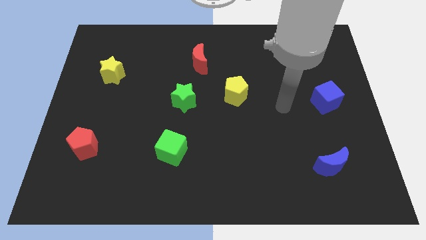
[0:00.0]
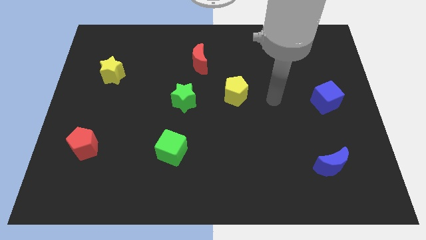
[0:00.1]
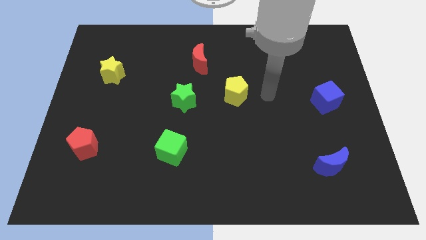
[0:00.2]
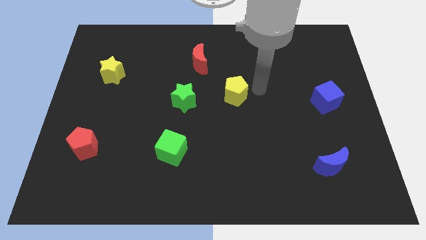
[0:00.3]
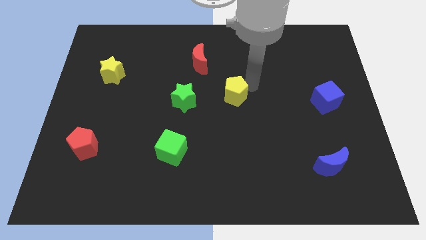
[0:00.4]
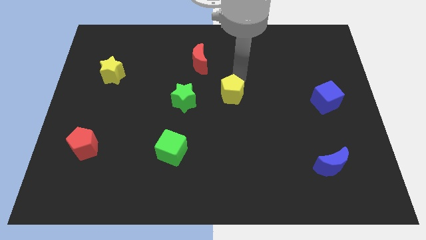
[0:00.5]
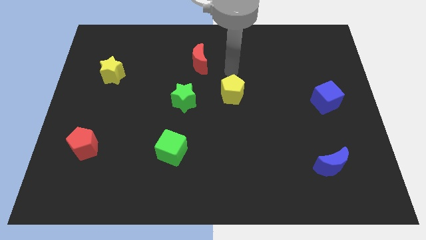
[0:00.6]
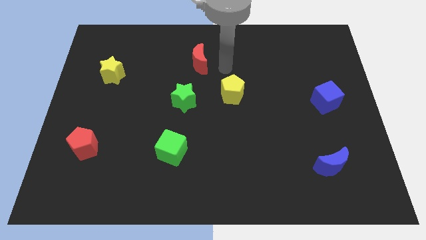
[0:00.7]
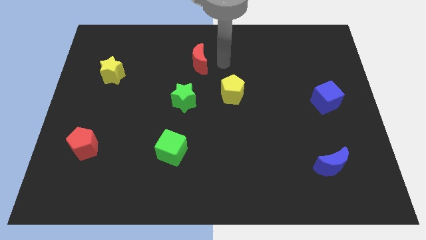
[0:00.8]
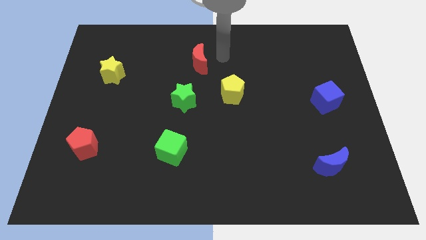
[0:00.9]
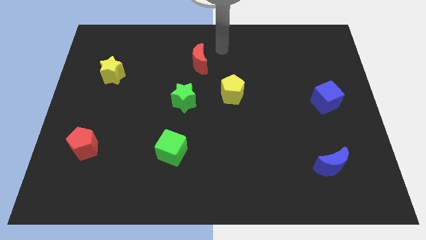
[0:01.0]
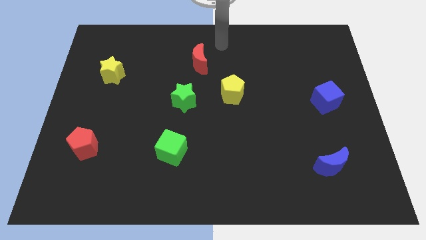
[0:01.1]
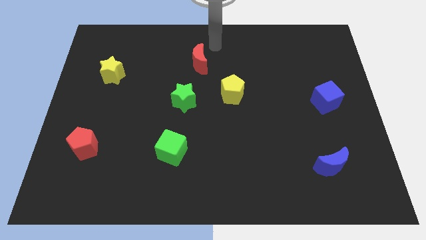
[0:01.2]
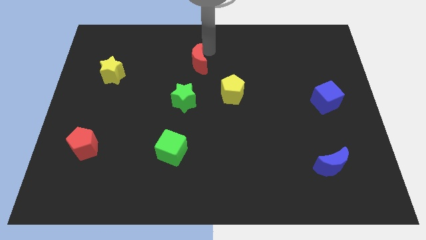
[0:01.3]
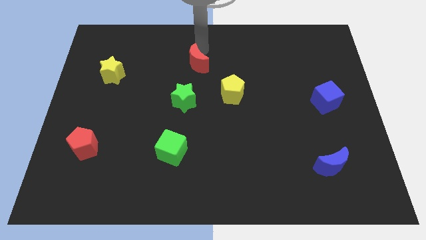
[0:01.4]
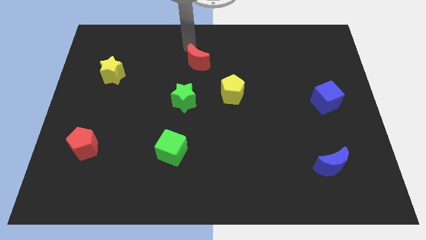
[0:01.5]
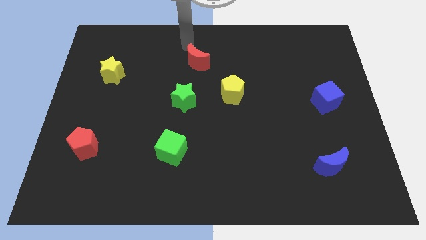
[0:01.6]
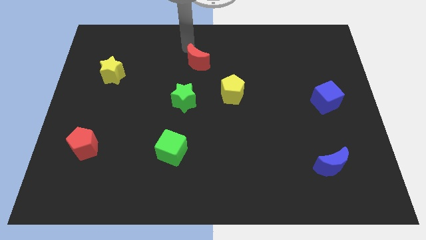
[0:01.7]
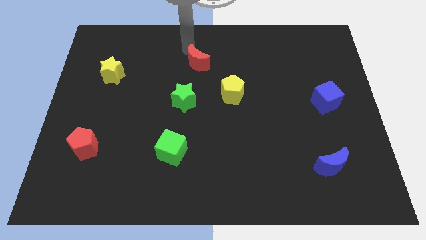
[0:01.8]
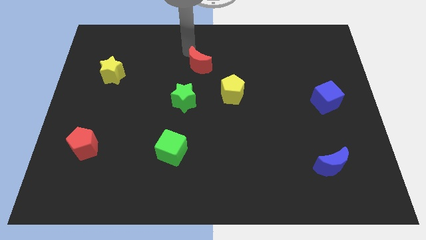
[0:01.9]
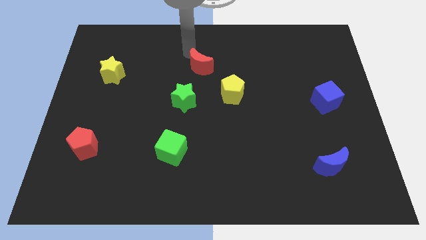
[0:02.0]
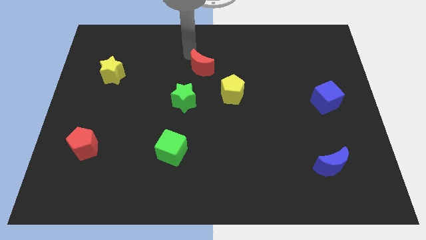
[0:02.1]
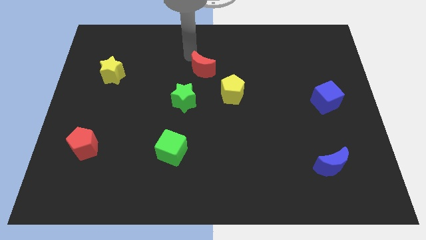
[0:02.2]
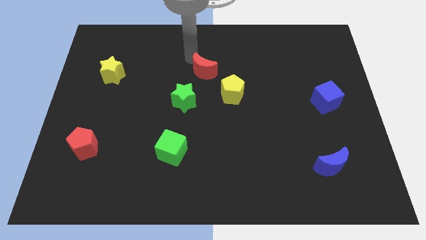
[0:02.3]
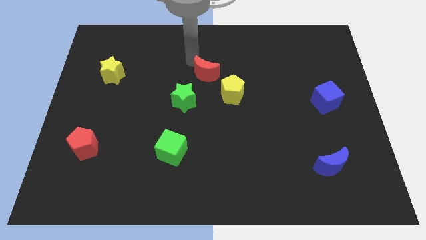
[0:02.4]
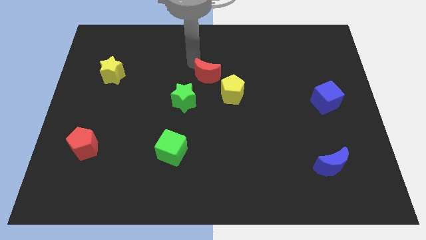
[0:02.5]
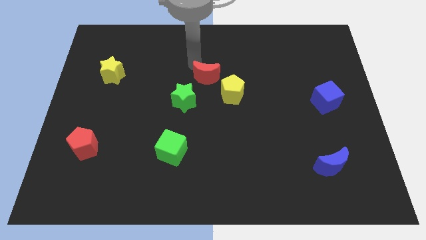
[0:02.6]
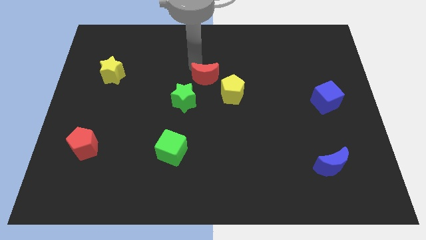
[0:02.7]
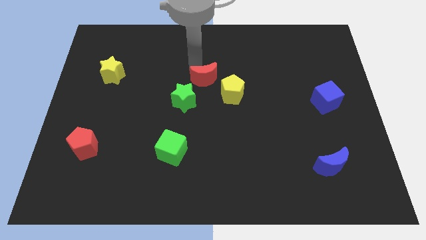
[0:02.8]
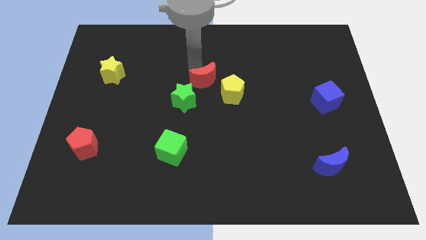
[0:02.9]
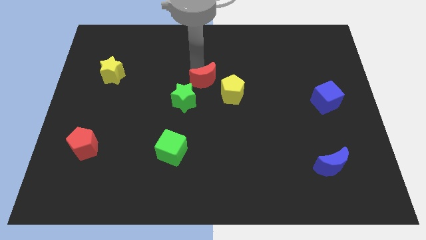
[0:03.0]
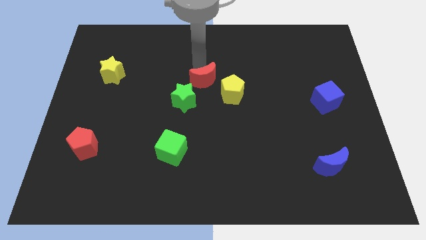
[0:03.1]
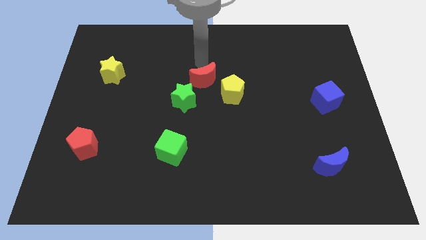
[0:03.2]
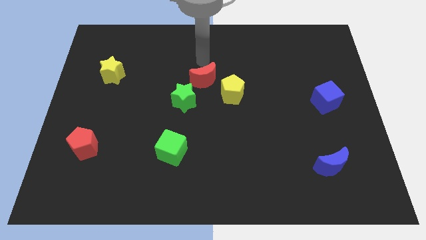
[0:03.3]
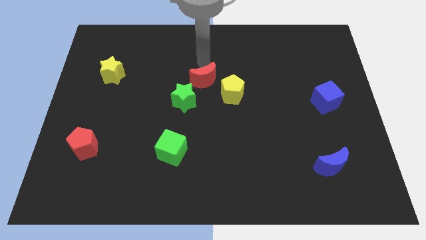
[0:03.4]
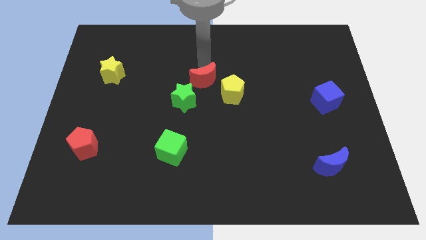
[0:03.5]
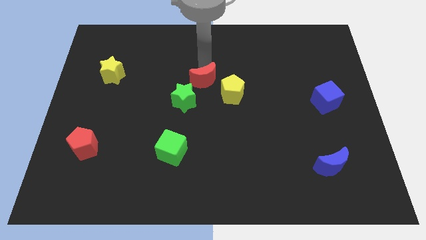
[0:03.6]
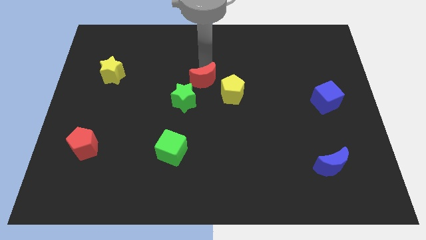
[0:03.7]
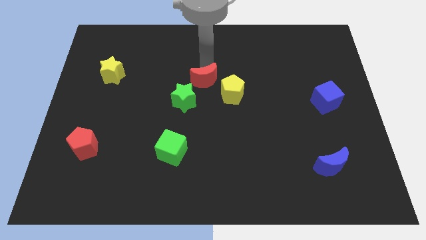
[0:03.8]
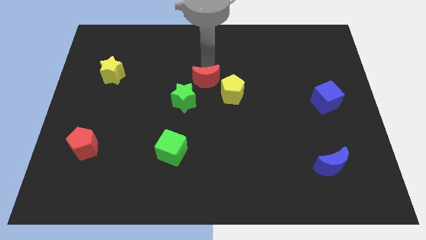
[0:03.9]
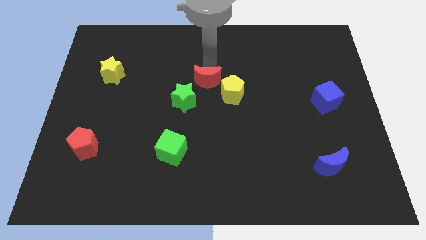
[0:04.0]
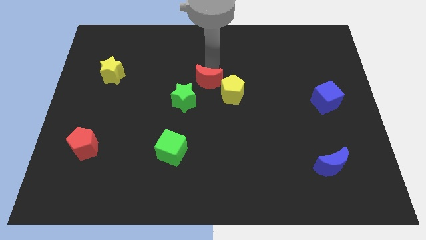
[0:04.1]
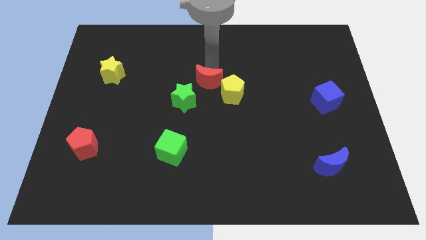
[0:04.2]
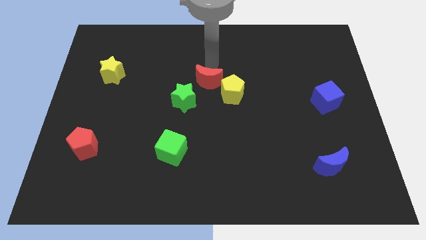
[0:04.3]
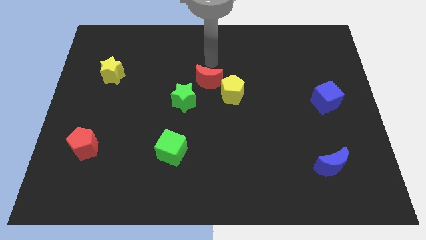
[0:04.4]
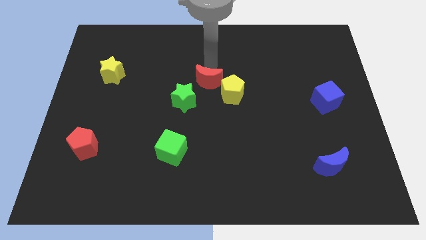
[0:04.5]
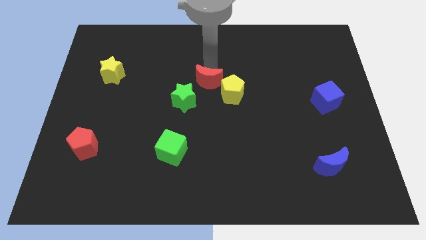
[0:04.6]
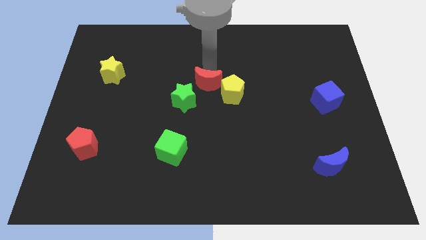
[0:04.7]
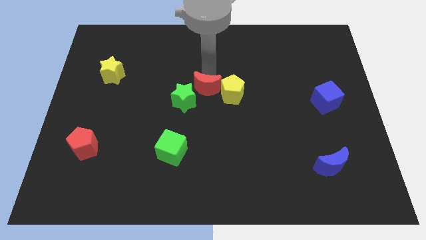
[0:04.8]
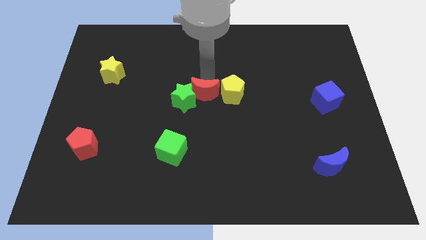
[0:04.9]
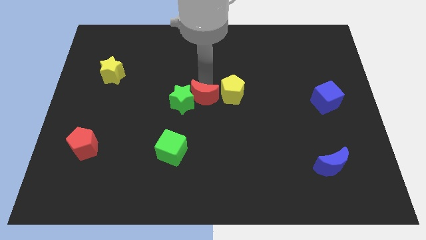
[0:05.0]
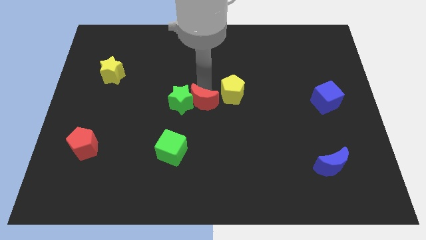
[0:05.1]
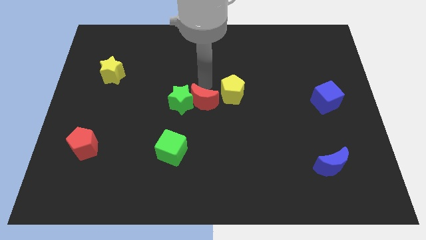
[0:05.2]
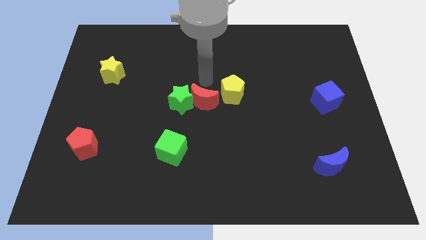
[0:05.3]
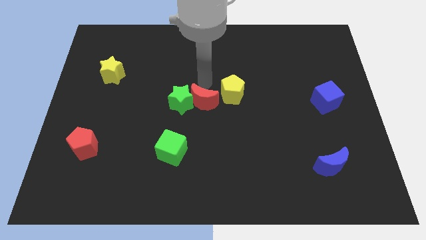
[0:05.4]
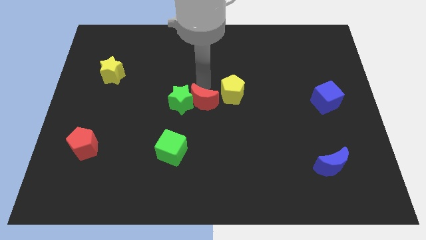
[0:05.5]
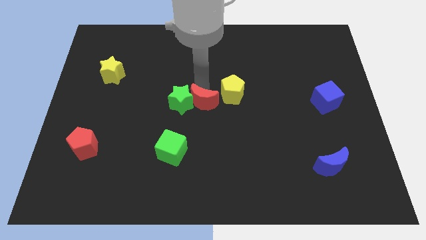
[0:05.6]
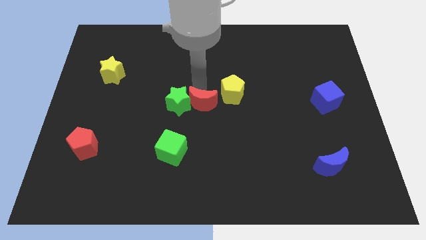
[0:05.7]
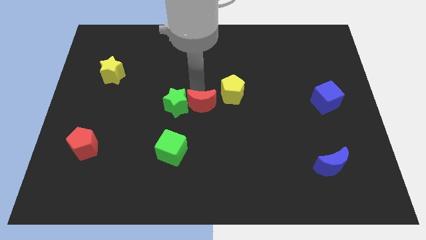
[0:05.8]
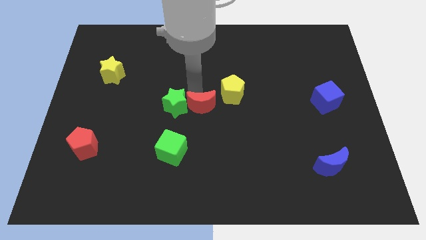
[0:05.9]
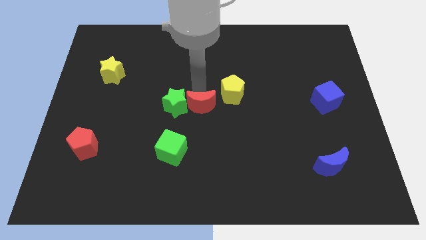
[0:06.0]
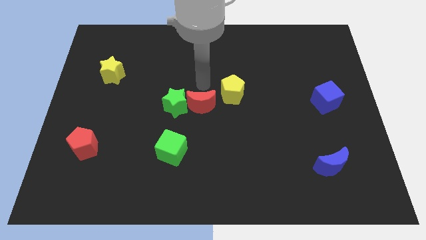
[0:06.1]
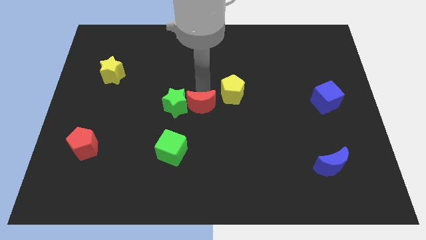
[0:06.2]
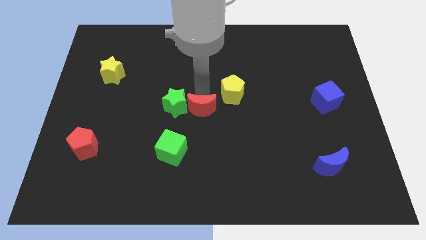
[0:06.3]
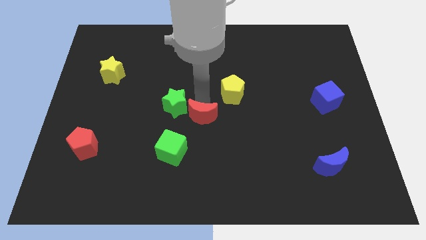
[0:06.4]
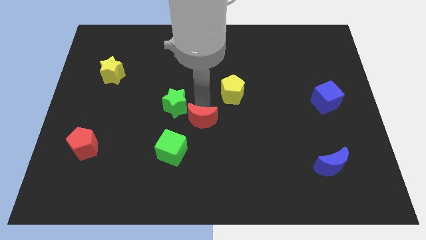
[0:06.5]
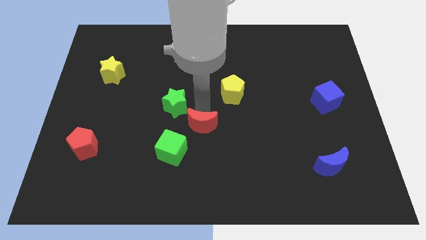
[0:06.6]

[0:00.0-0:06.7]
move the red moon down

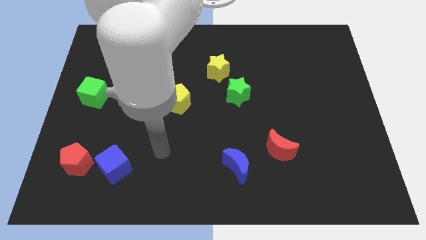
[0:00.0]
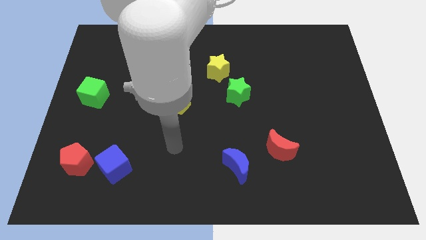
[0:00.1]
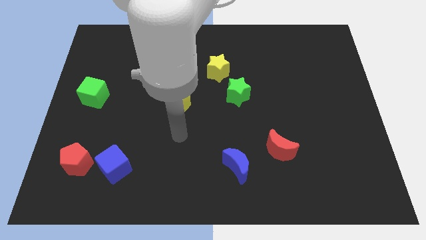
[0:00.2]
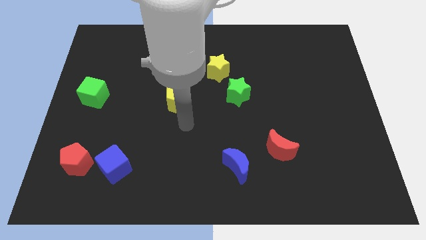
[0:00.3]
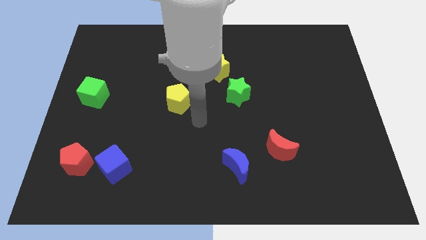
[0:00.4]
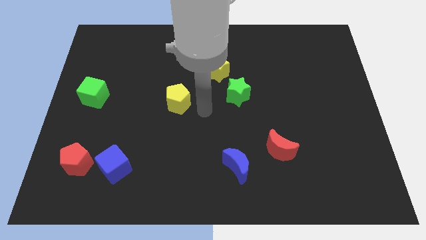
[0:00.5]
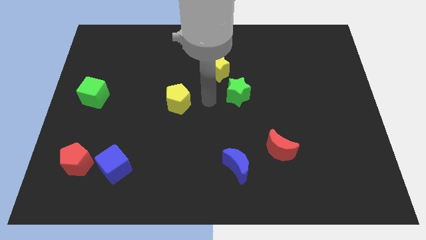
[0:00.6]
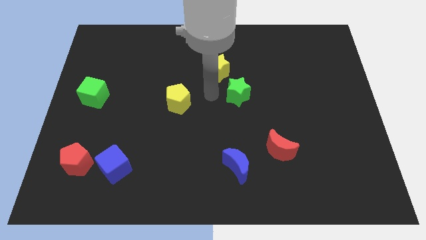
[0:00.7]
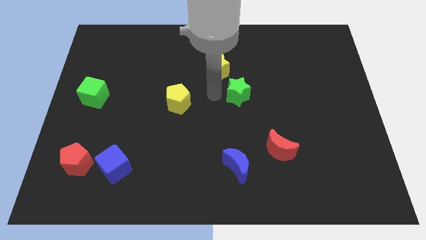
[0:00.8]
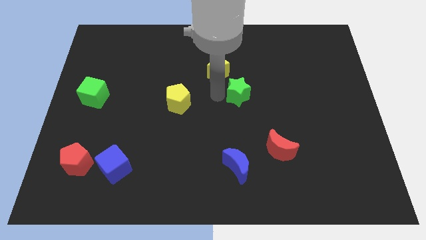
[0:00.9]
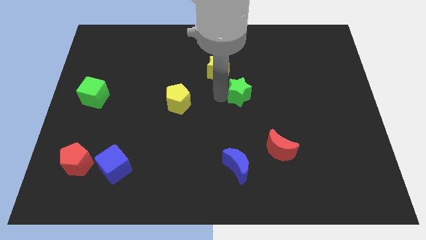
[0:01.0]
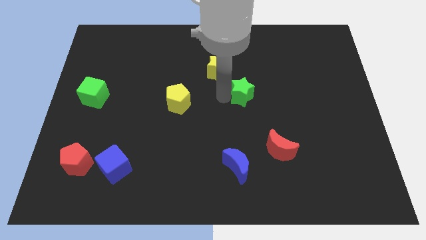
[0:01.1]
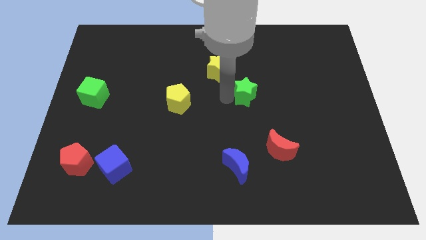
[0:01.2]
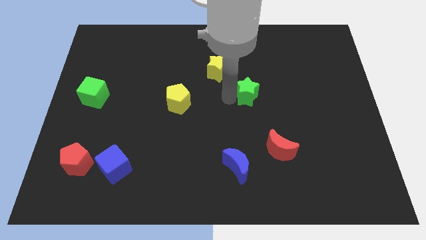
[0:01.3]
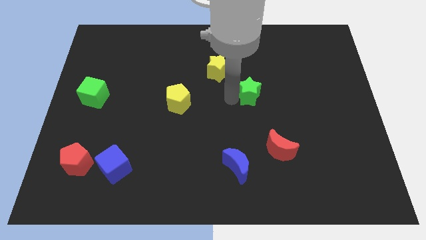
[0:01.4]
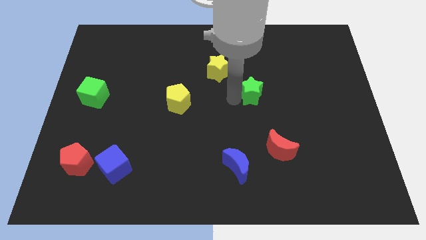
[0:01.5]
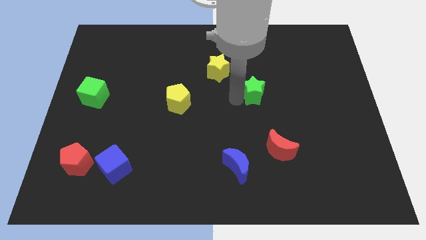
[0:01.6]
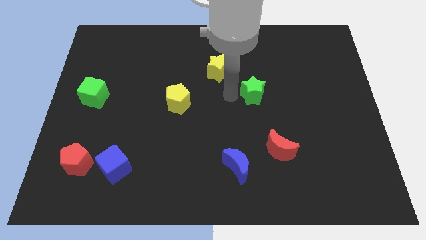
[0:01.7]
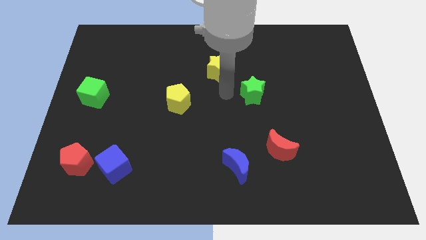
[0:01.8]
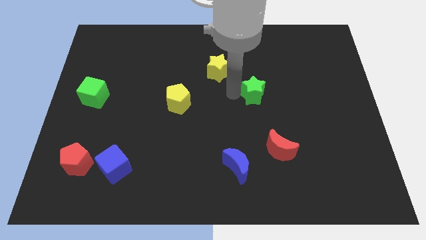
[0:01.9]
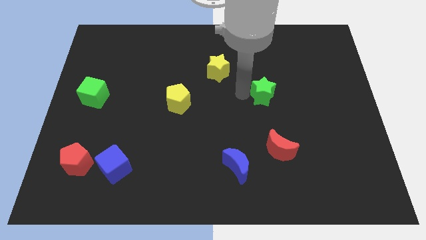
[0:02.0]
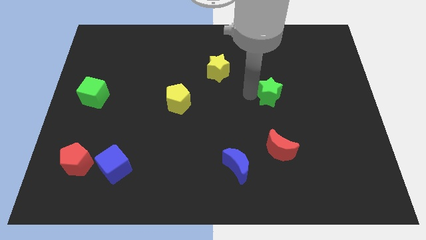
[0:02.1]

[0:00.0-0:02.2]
slide the green star slightly to the right
